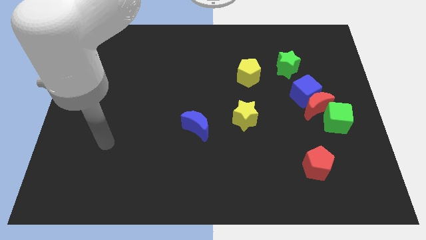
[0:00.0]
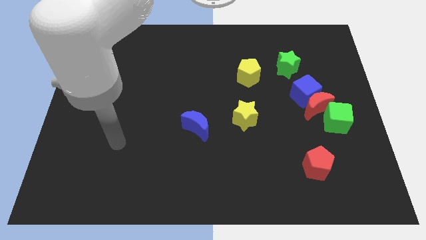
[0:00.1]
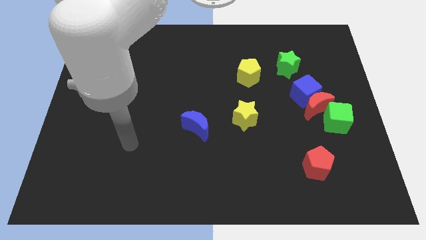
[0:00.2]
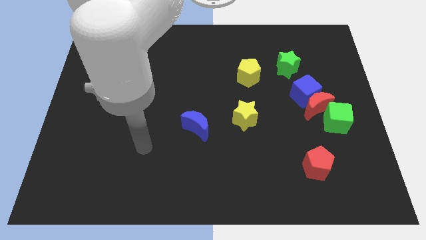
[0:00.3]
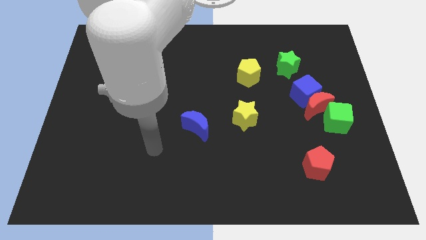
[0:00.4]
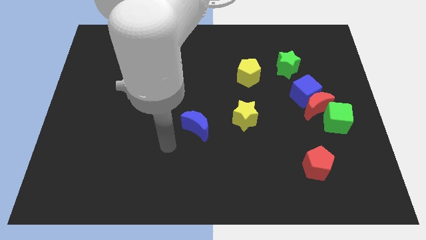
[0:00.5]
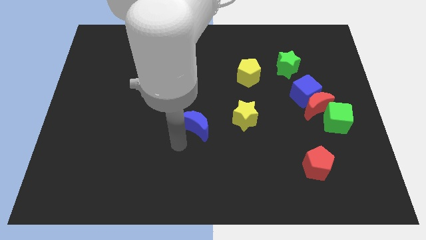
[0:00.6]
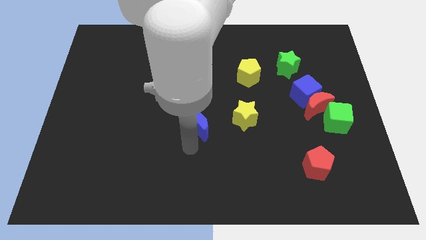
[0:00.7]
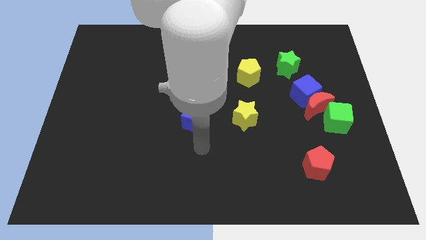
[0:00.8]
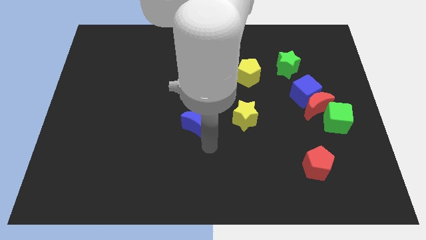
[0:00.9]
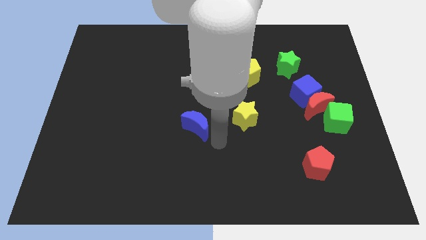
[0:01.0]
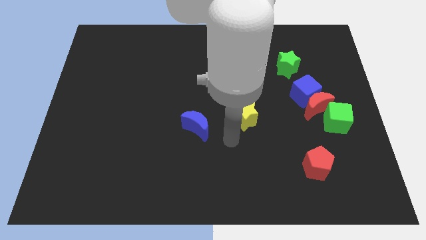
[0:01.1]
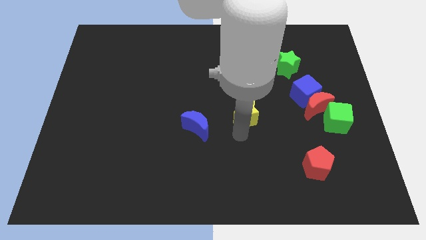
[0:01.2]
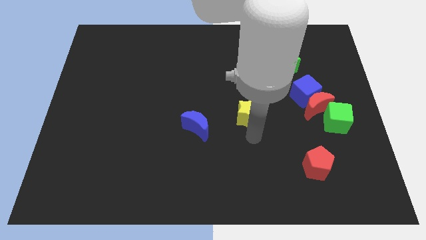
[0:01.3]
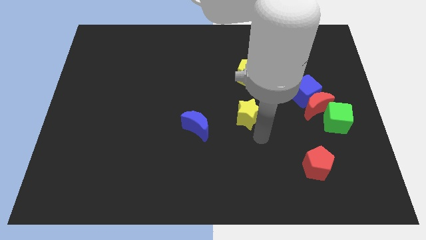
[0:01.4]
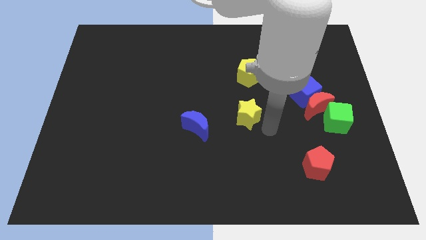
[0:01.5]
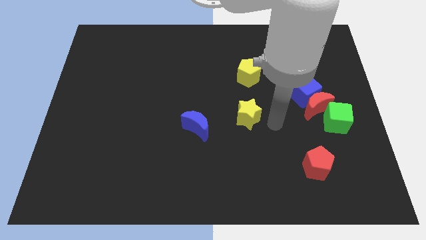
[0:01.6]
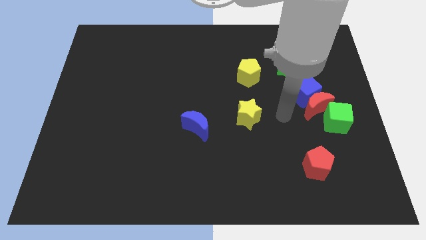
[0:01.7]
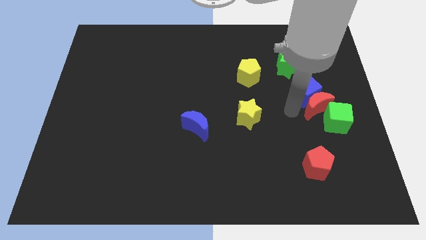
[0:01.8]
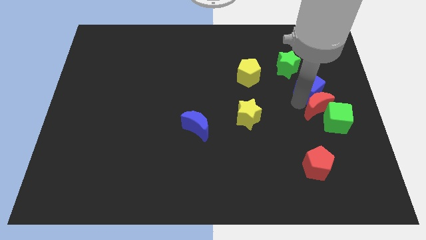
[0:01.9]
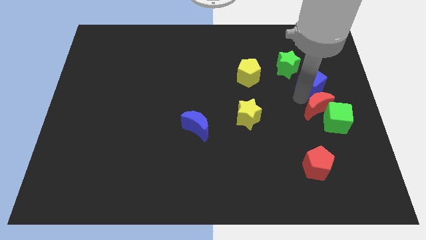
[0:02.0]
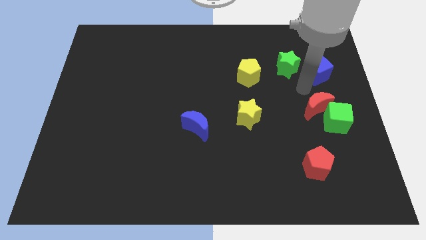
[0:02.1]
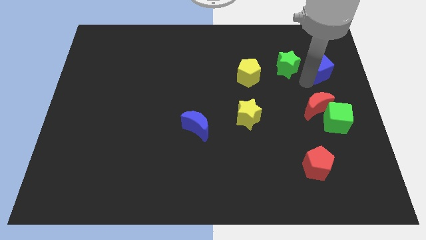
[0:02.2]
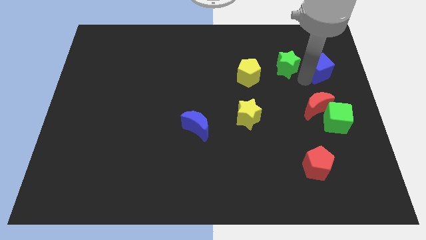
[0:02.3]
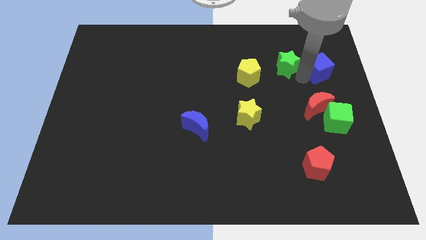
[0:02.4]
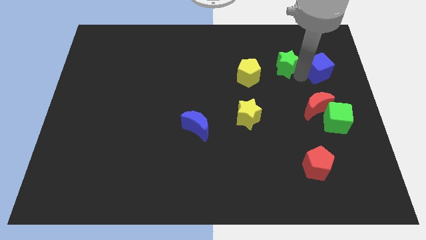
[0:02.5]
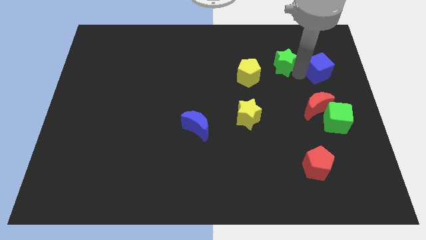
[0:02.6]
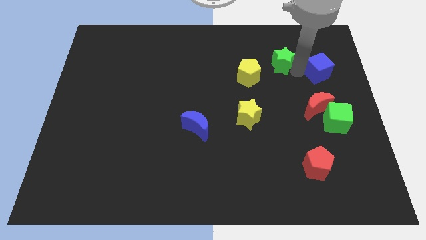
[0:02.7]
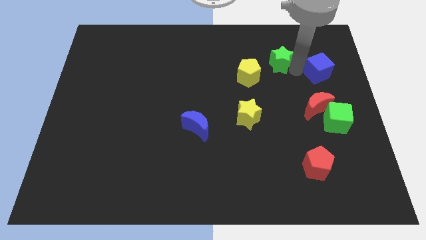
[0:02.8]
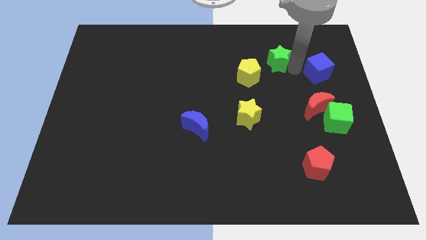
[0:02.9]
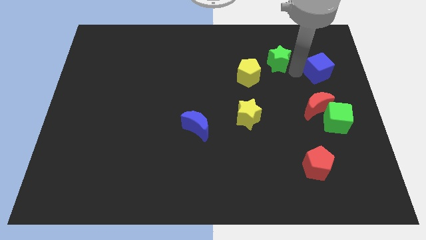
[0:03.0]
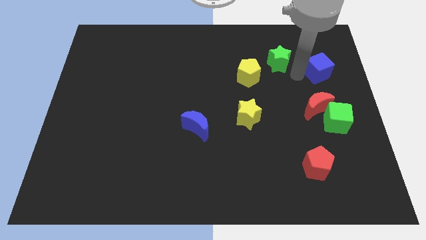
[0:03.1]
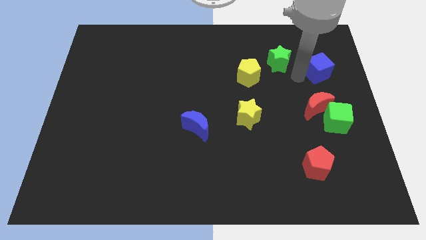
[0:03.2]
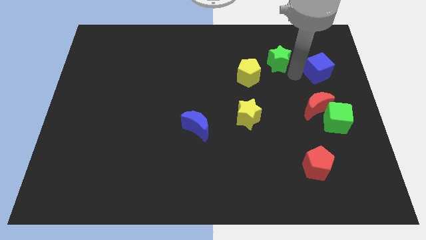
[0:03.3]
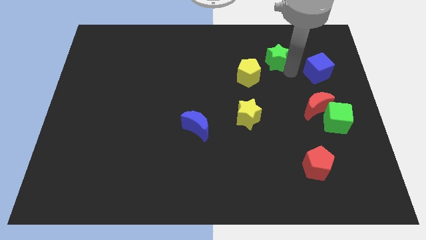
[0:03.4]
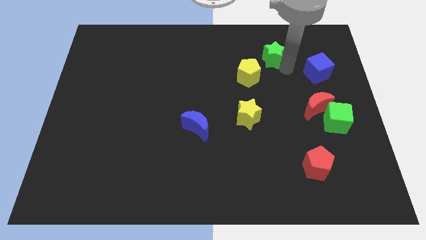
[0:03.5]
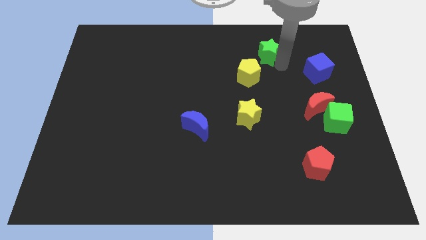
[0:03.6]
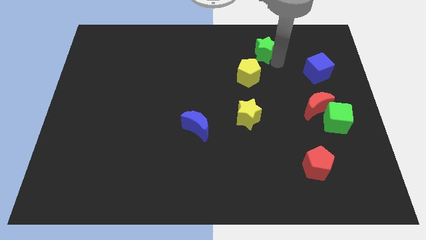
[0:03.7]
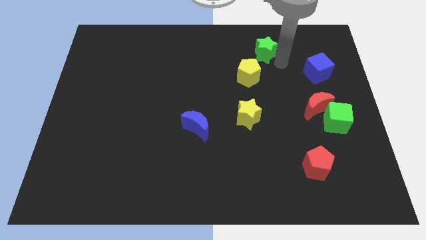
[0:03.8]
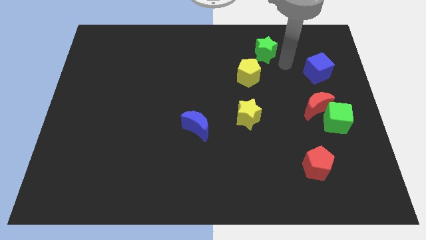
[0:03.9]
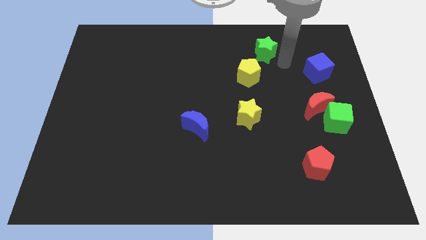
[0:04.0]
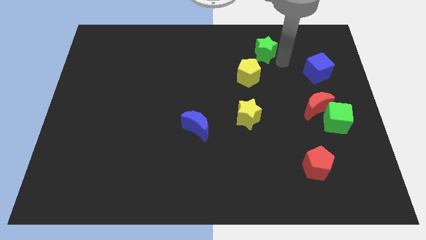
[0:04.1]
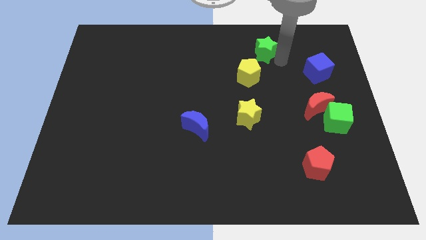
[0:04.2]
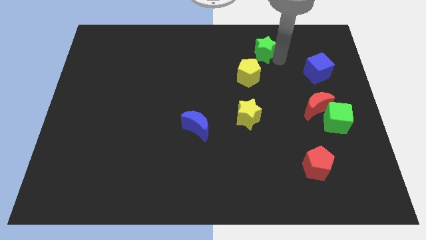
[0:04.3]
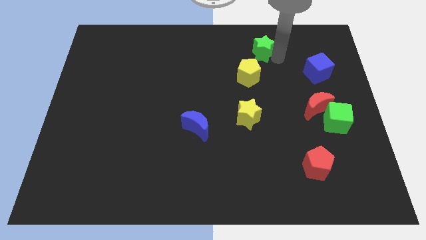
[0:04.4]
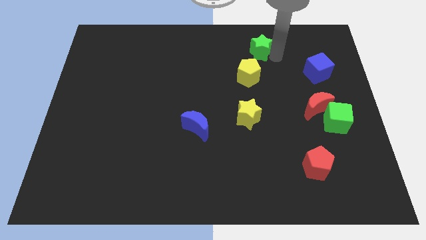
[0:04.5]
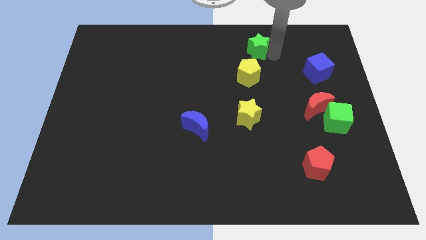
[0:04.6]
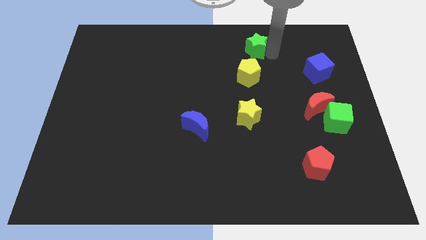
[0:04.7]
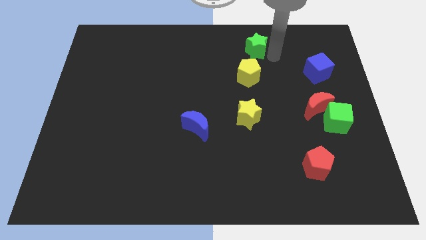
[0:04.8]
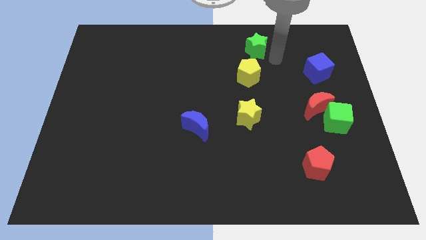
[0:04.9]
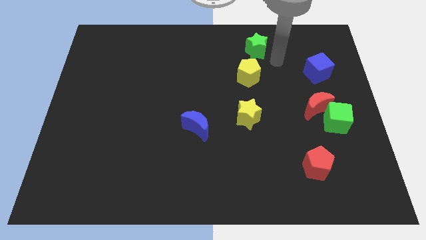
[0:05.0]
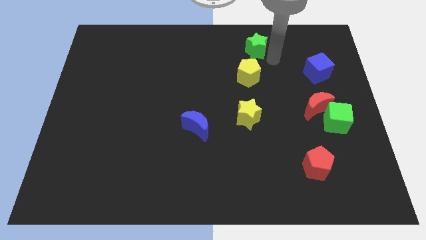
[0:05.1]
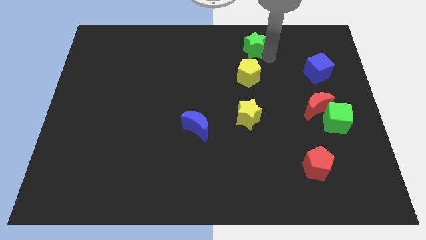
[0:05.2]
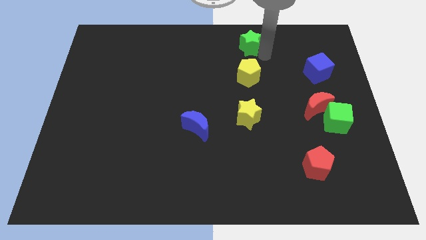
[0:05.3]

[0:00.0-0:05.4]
move the green star to the top side

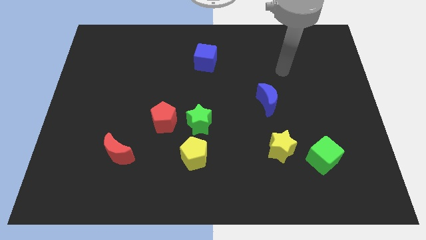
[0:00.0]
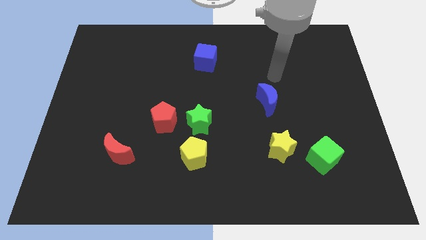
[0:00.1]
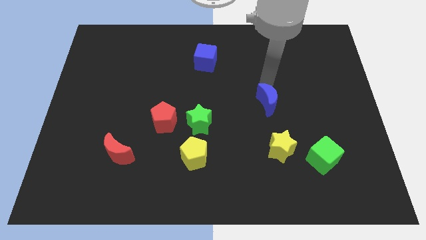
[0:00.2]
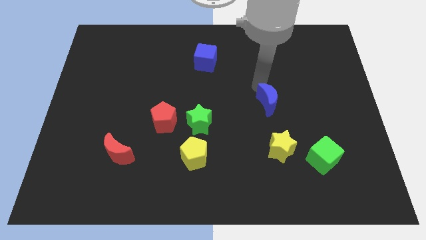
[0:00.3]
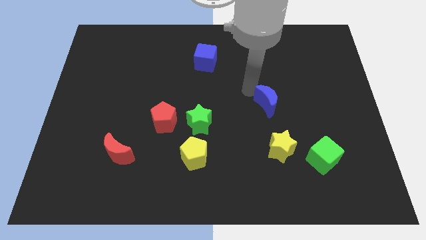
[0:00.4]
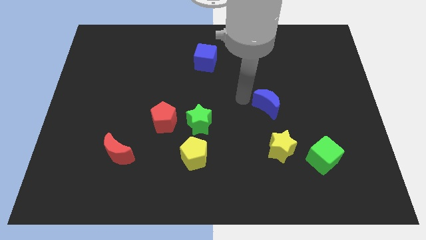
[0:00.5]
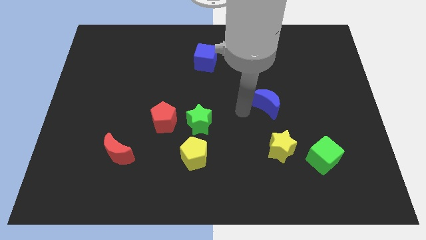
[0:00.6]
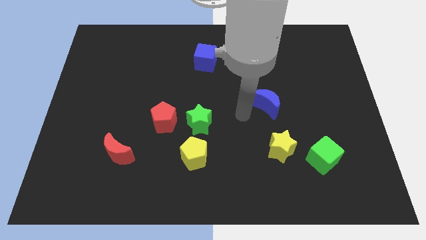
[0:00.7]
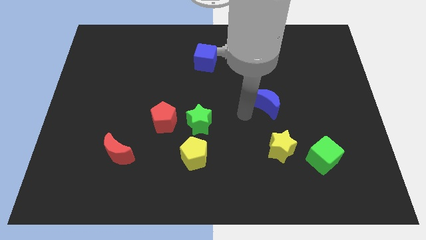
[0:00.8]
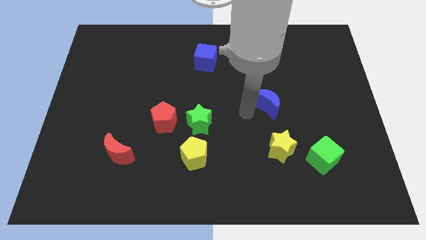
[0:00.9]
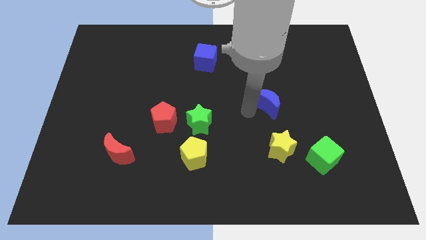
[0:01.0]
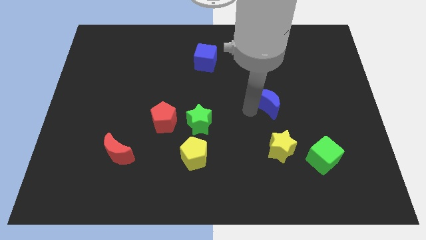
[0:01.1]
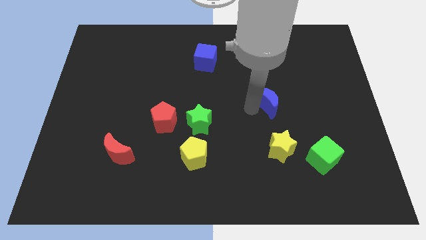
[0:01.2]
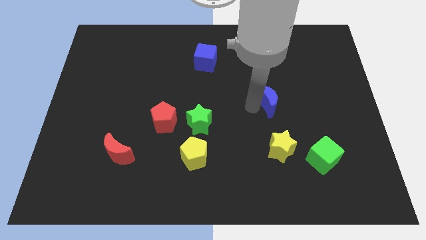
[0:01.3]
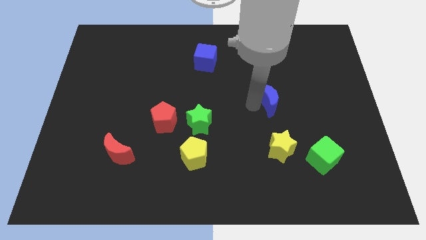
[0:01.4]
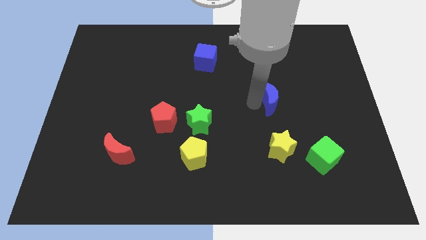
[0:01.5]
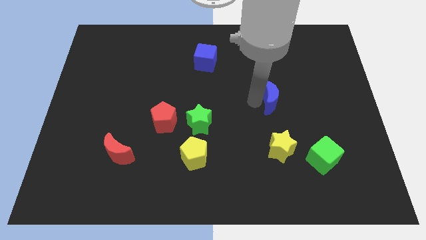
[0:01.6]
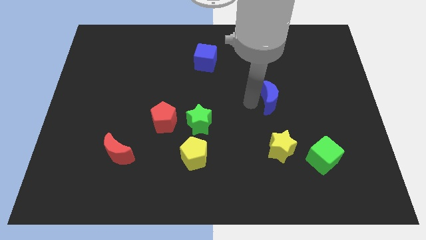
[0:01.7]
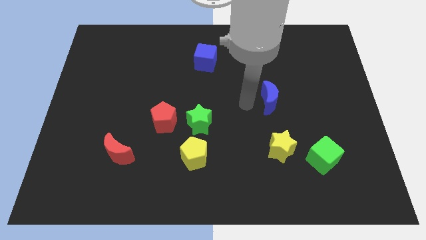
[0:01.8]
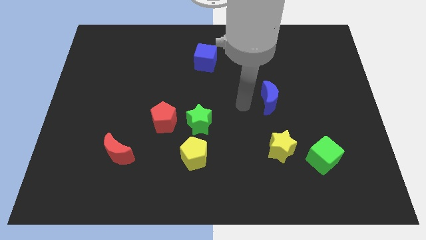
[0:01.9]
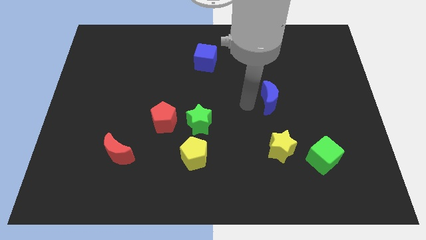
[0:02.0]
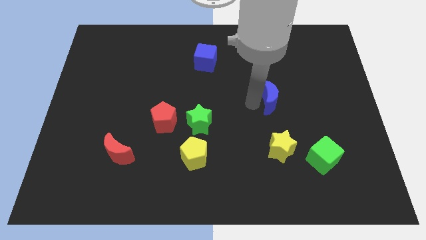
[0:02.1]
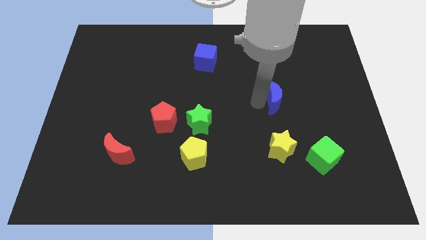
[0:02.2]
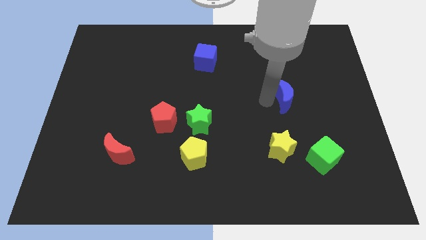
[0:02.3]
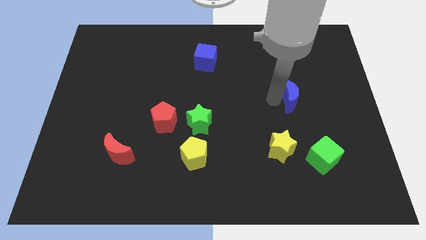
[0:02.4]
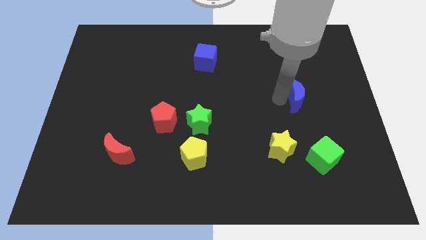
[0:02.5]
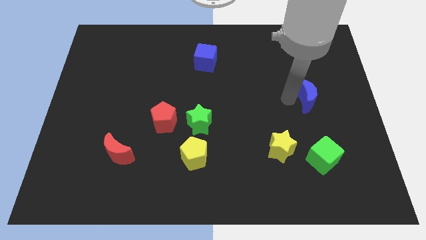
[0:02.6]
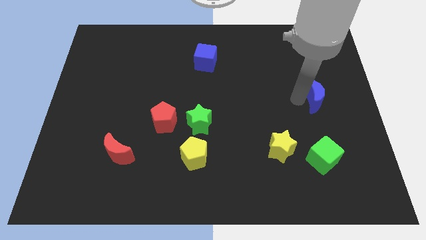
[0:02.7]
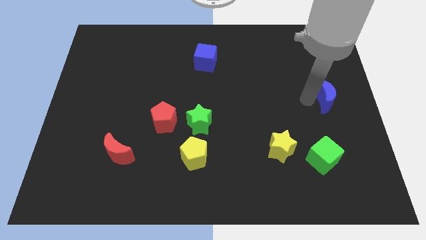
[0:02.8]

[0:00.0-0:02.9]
push the blue moon to the right side of the board
